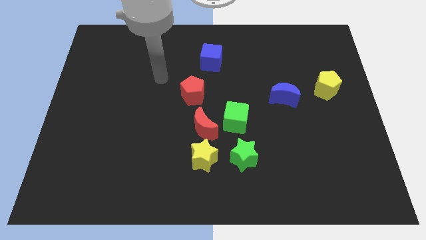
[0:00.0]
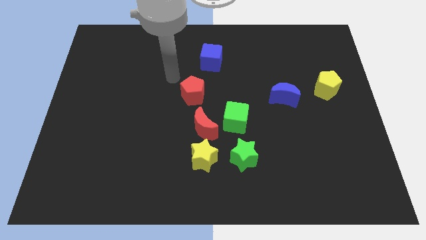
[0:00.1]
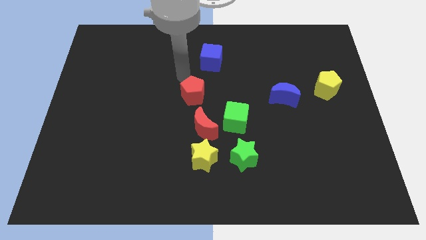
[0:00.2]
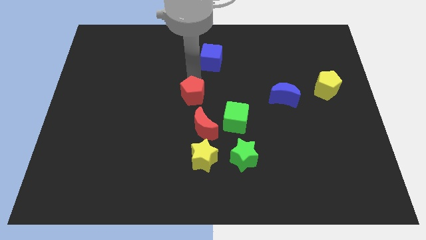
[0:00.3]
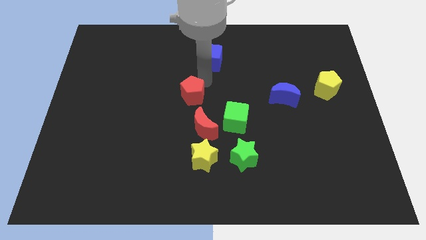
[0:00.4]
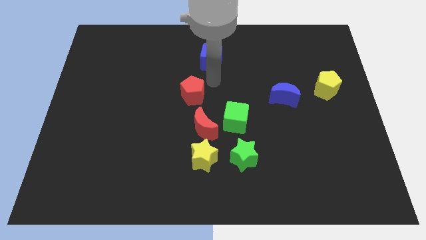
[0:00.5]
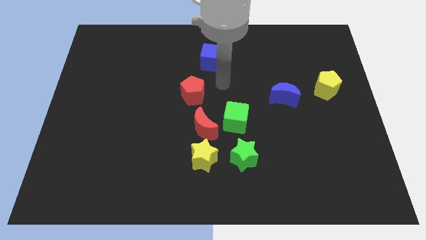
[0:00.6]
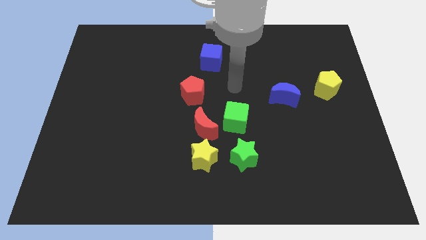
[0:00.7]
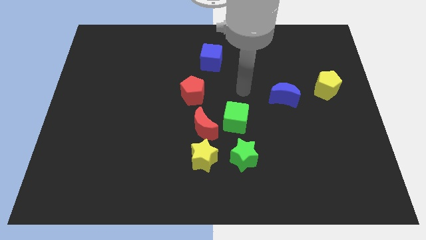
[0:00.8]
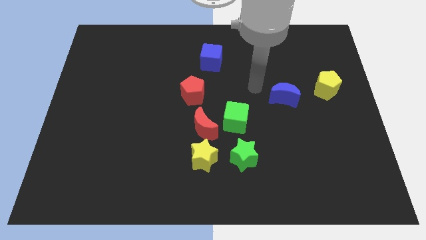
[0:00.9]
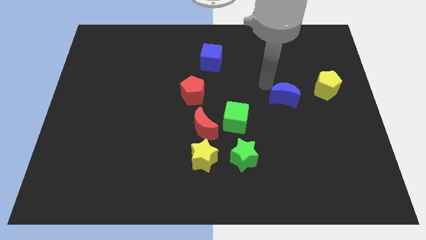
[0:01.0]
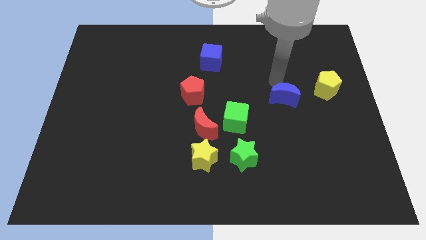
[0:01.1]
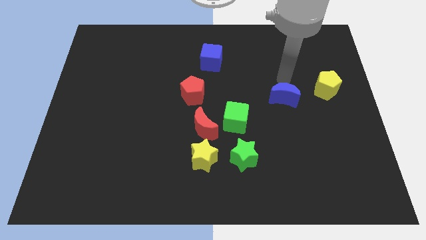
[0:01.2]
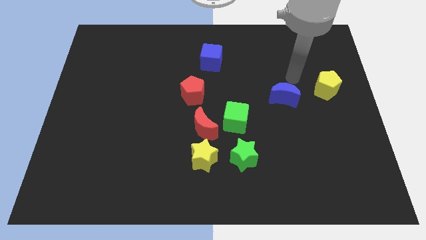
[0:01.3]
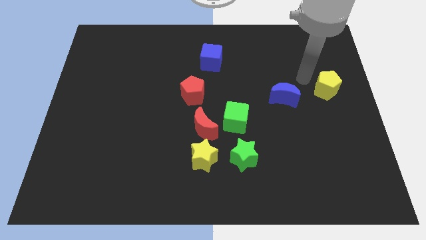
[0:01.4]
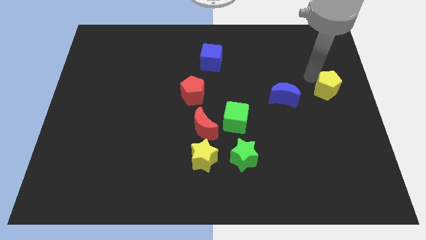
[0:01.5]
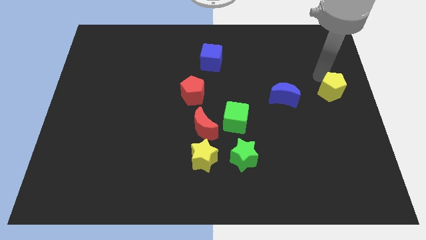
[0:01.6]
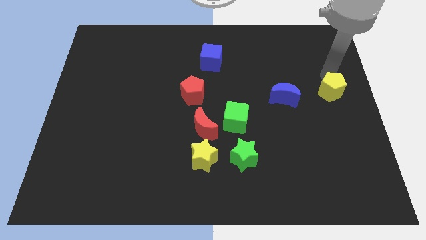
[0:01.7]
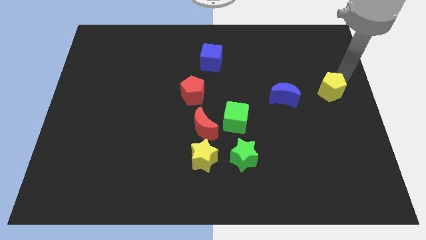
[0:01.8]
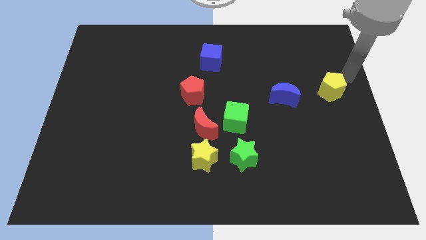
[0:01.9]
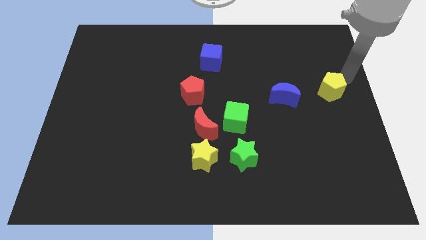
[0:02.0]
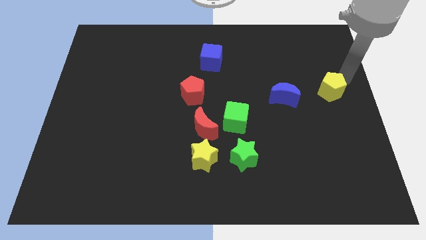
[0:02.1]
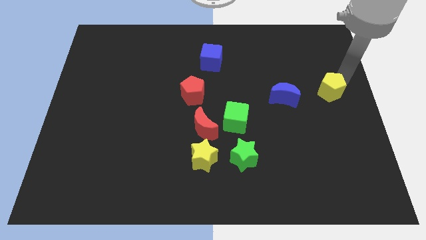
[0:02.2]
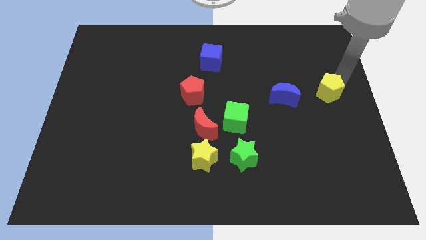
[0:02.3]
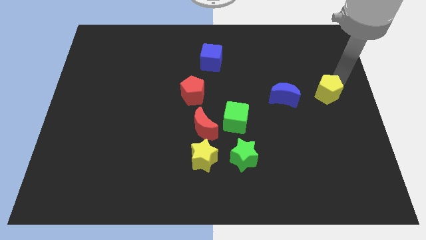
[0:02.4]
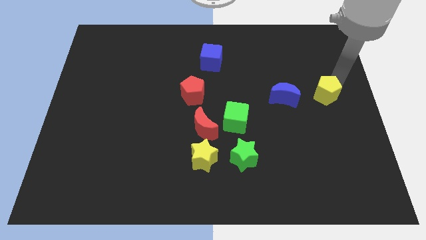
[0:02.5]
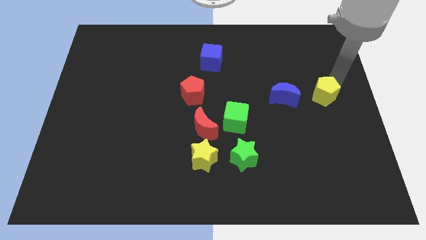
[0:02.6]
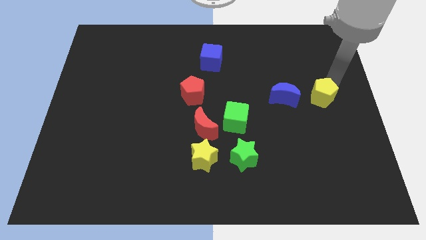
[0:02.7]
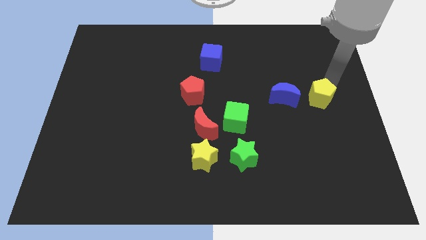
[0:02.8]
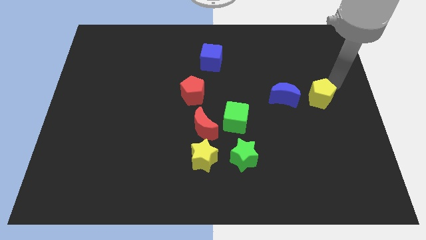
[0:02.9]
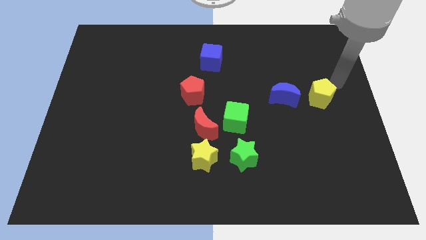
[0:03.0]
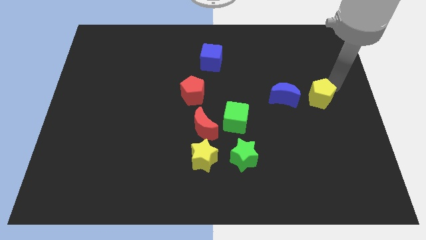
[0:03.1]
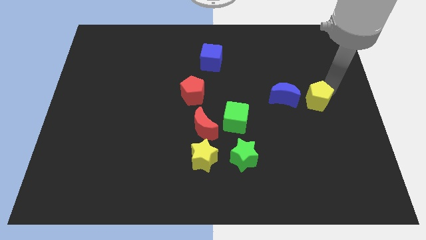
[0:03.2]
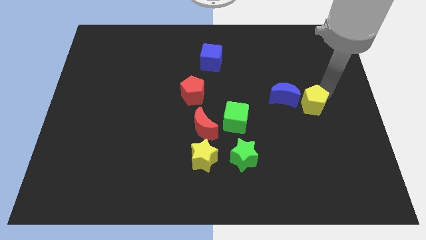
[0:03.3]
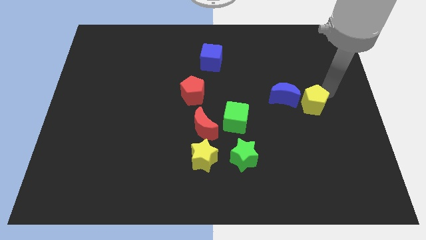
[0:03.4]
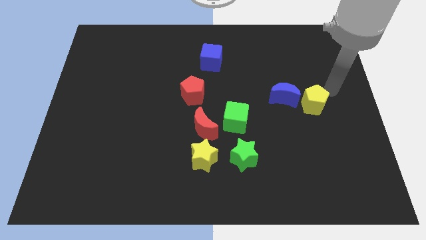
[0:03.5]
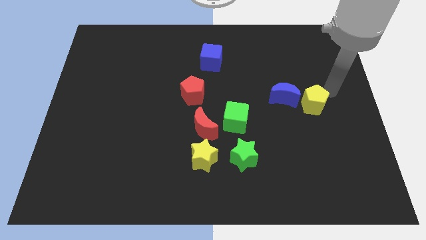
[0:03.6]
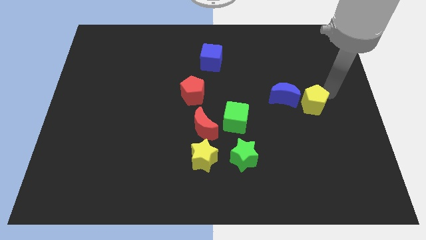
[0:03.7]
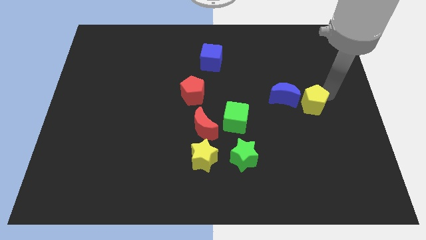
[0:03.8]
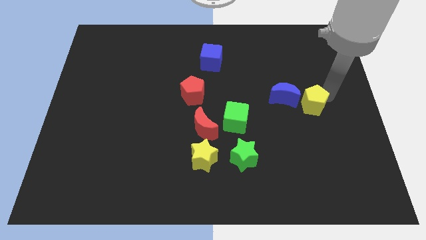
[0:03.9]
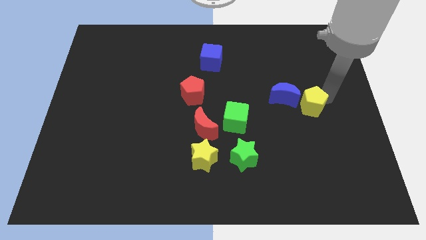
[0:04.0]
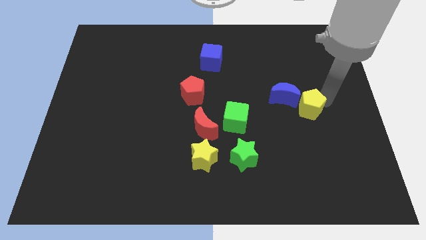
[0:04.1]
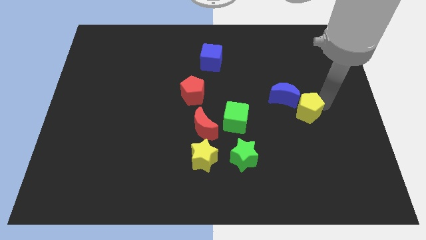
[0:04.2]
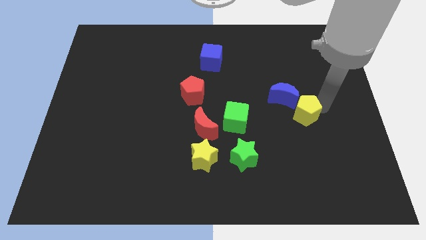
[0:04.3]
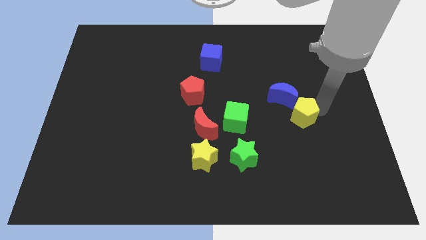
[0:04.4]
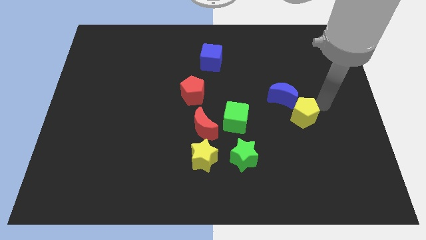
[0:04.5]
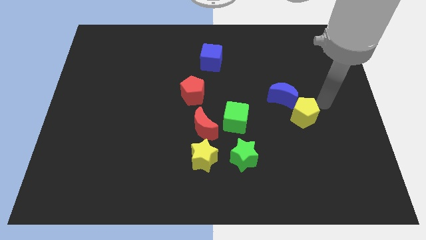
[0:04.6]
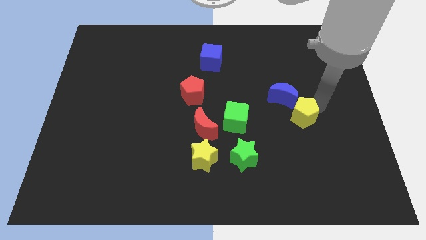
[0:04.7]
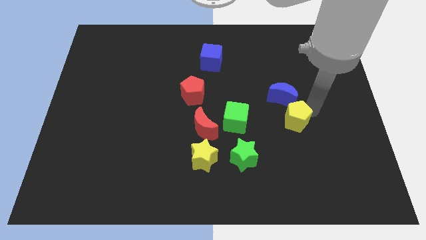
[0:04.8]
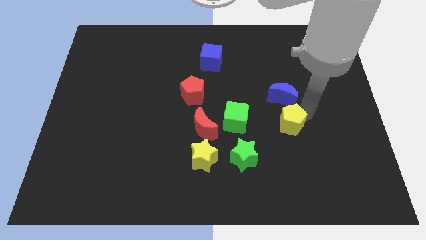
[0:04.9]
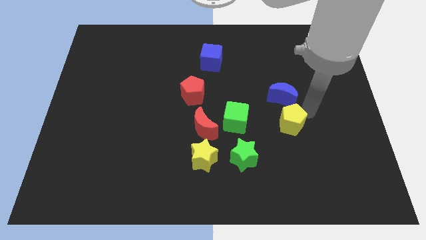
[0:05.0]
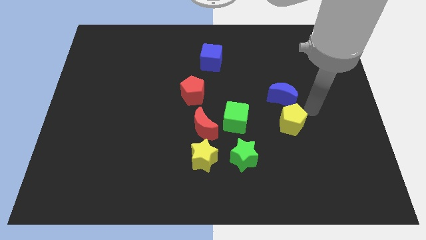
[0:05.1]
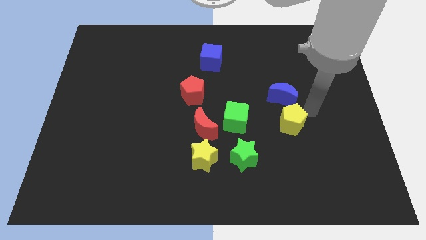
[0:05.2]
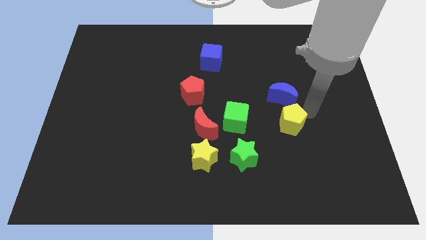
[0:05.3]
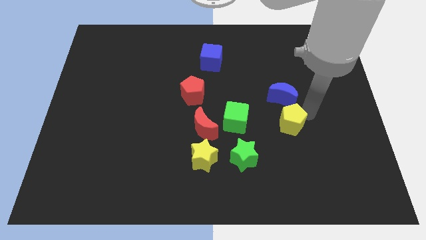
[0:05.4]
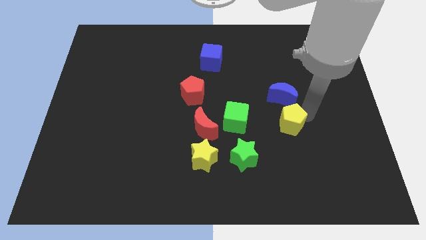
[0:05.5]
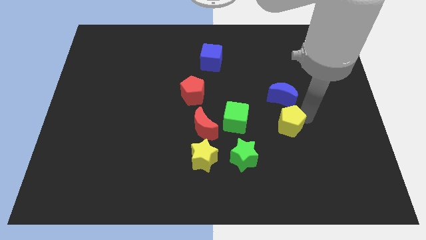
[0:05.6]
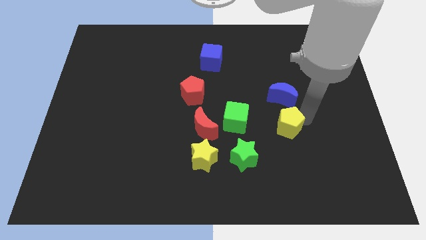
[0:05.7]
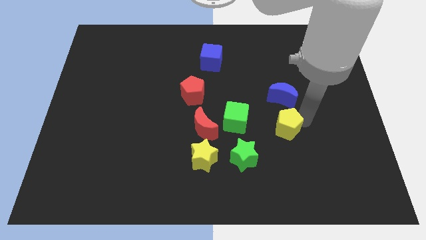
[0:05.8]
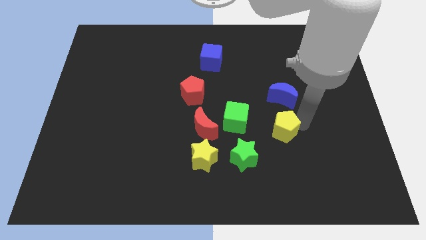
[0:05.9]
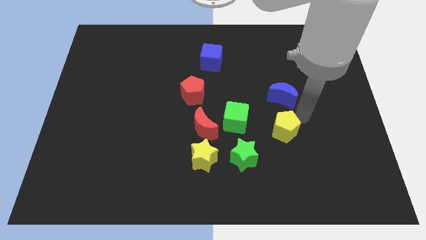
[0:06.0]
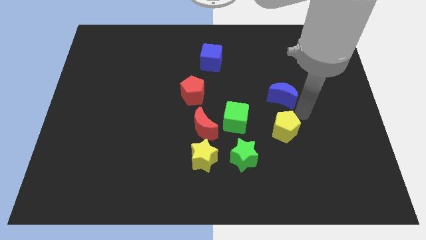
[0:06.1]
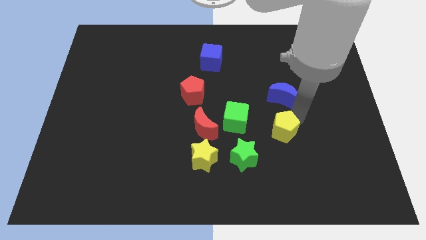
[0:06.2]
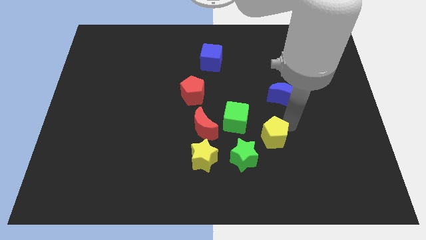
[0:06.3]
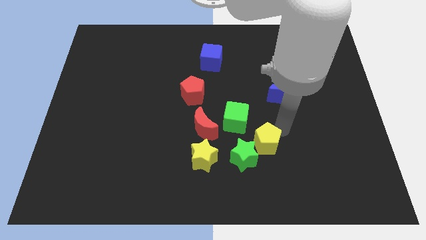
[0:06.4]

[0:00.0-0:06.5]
move the yellow pentagon just right of the yellow star
